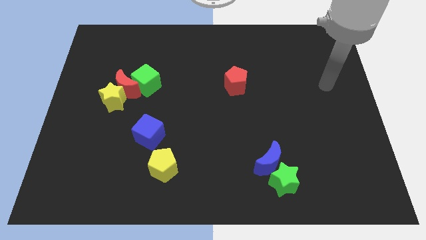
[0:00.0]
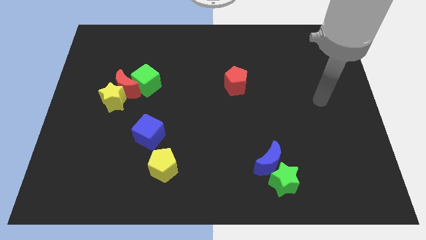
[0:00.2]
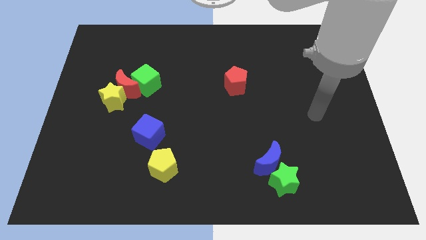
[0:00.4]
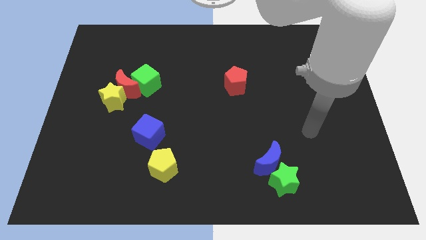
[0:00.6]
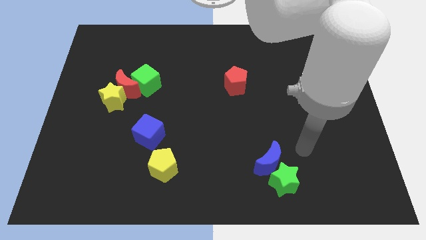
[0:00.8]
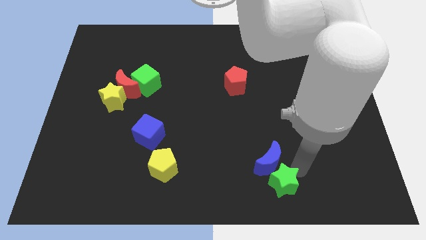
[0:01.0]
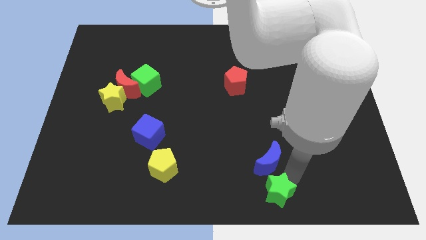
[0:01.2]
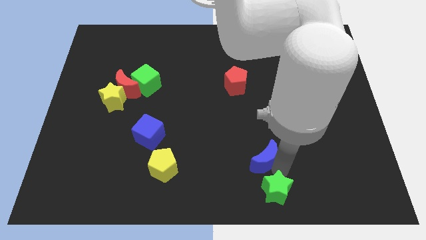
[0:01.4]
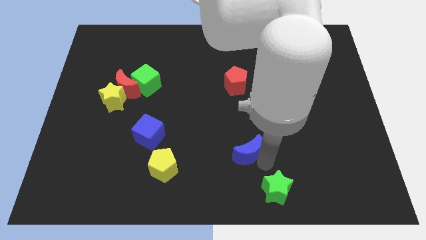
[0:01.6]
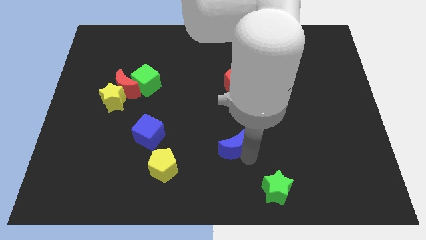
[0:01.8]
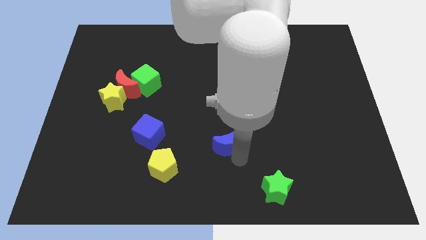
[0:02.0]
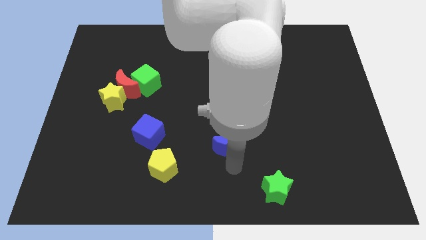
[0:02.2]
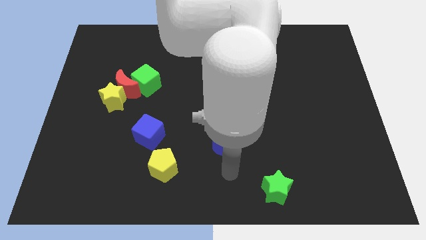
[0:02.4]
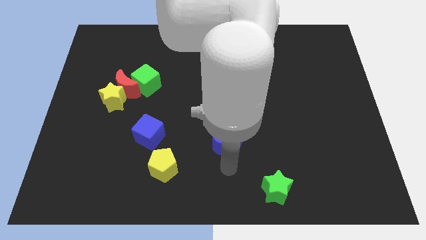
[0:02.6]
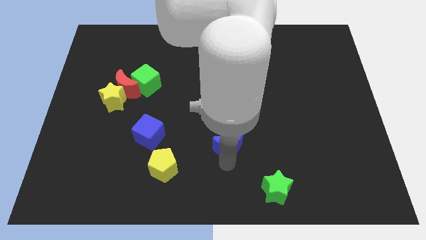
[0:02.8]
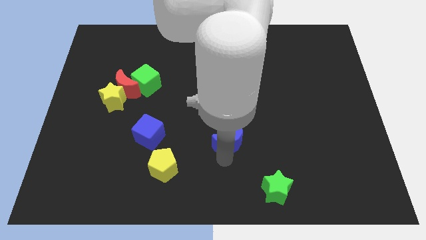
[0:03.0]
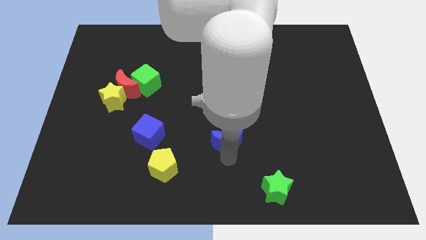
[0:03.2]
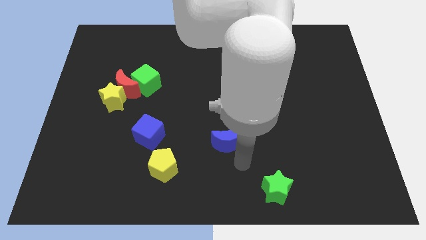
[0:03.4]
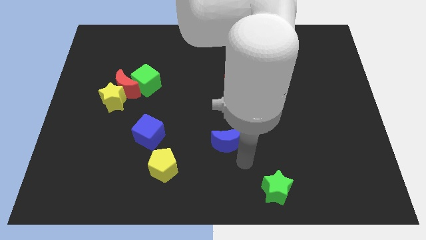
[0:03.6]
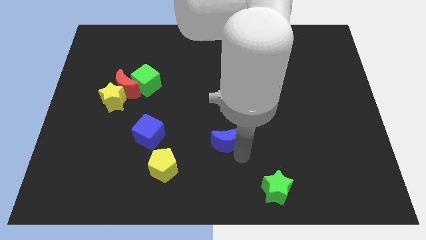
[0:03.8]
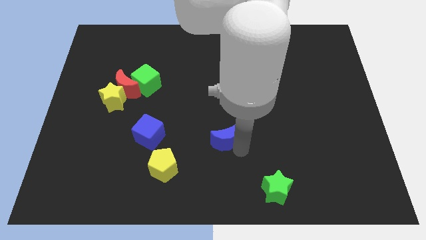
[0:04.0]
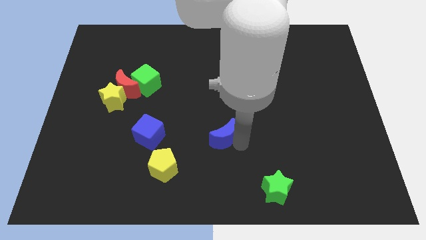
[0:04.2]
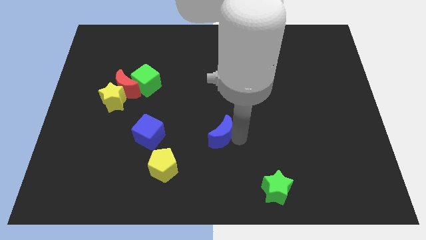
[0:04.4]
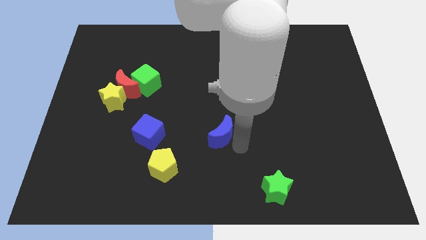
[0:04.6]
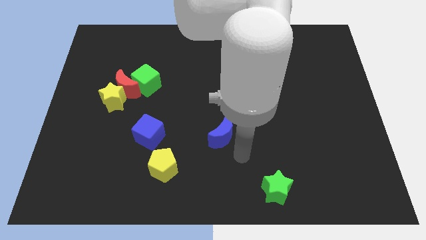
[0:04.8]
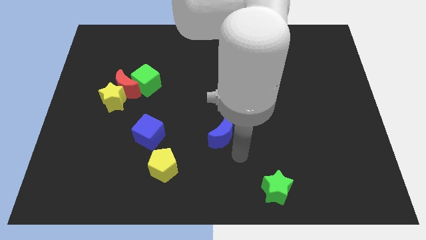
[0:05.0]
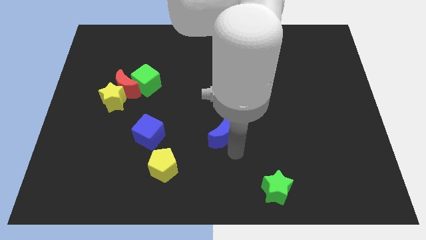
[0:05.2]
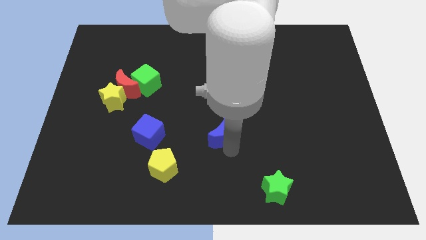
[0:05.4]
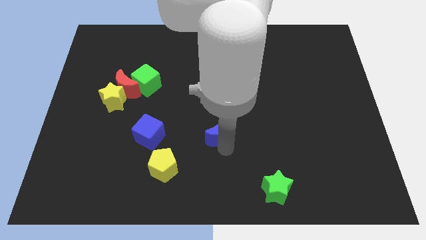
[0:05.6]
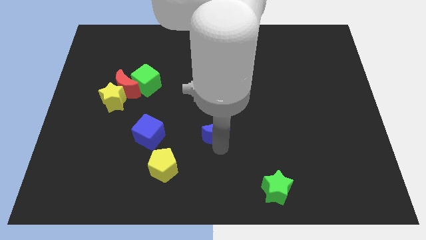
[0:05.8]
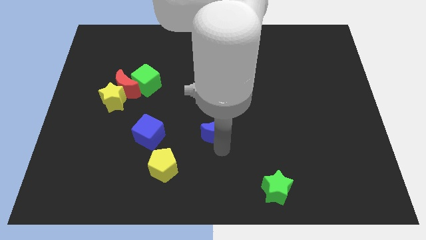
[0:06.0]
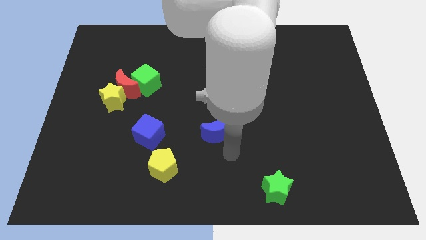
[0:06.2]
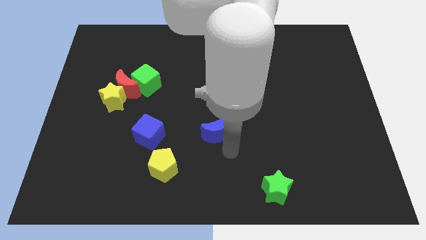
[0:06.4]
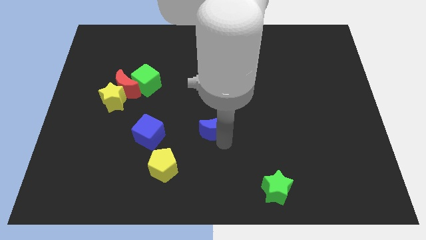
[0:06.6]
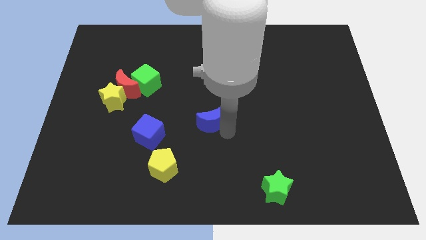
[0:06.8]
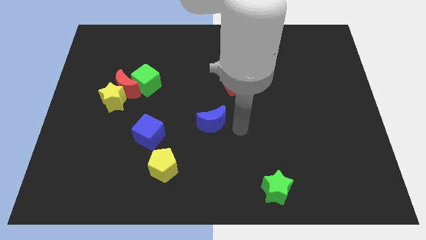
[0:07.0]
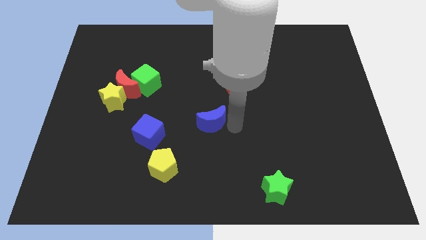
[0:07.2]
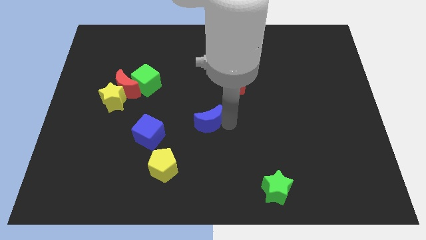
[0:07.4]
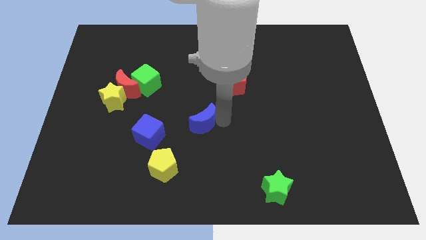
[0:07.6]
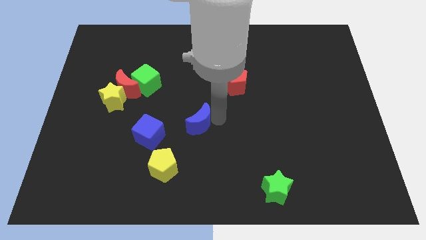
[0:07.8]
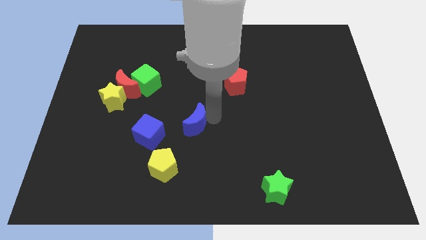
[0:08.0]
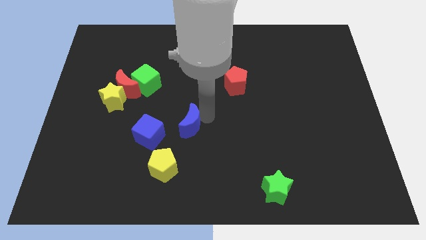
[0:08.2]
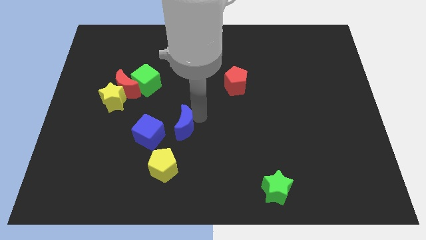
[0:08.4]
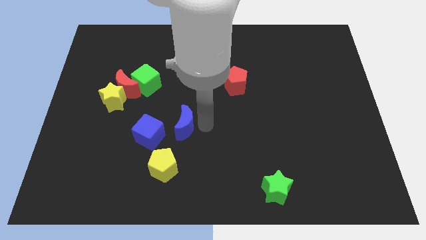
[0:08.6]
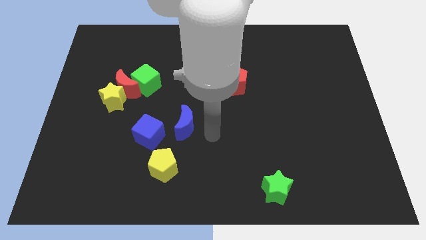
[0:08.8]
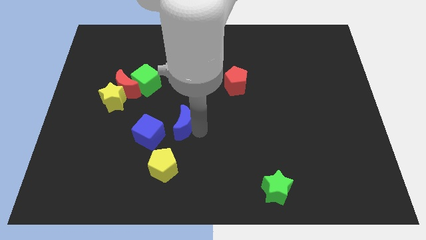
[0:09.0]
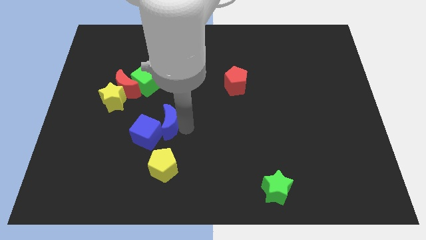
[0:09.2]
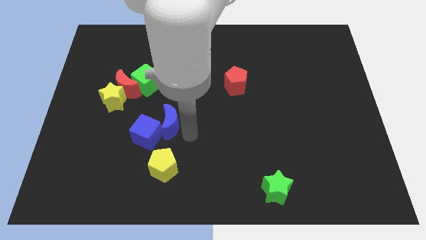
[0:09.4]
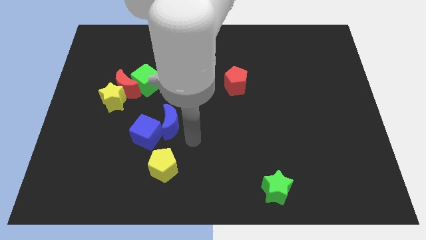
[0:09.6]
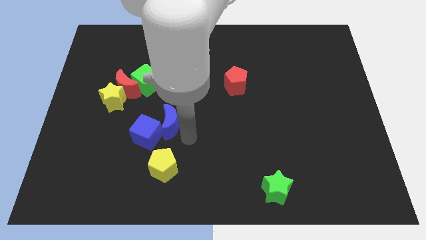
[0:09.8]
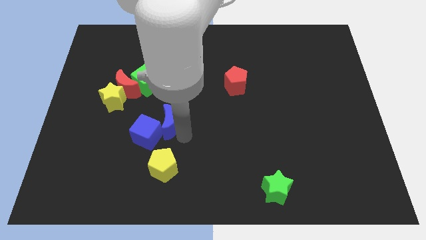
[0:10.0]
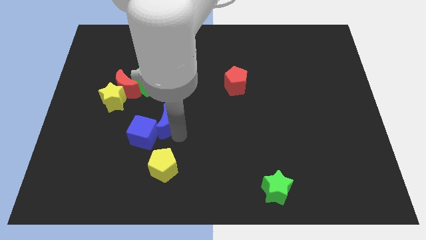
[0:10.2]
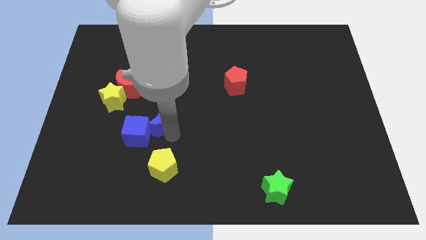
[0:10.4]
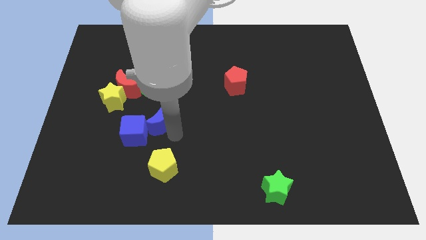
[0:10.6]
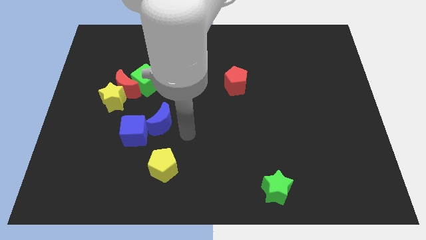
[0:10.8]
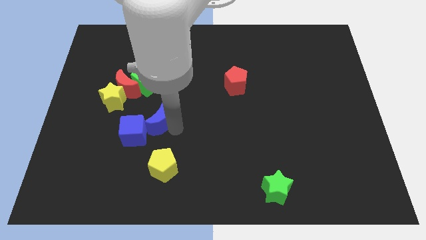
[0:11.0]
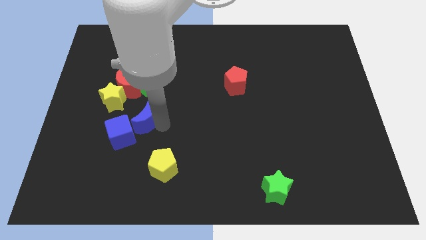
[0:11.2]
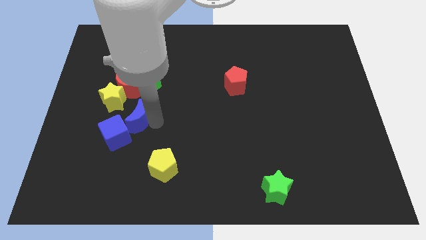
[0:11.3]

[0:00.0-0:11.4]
put the blue moon to the bottom side of the red moon

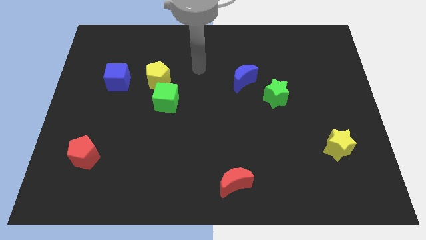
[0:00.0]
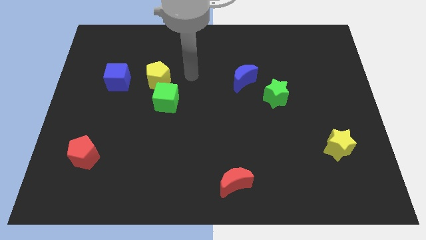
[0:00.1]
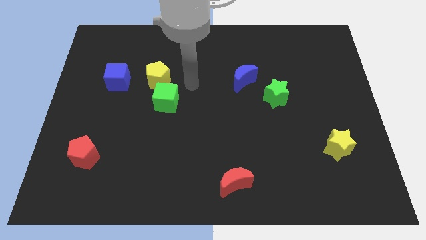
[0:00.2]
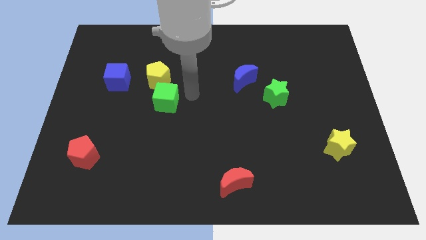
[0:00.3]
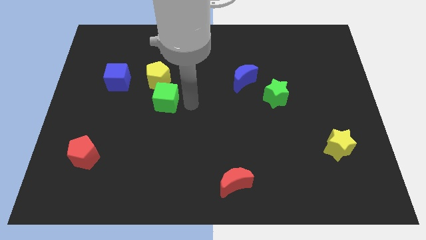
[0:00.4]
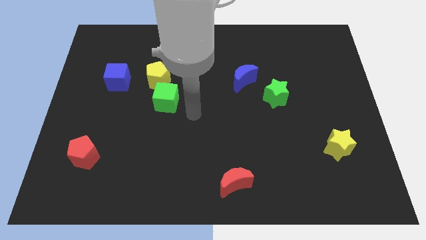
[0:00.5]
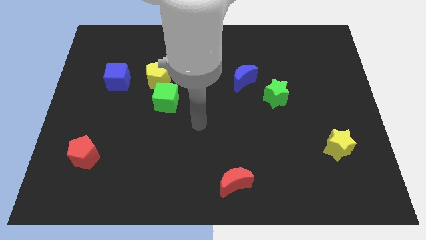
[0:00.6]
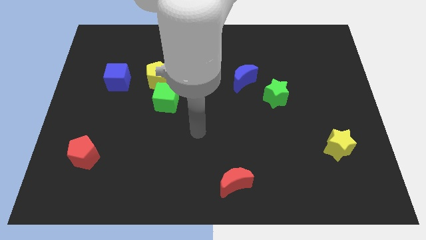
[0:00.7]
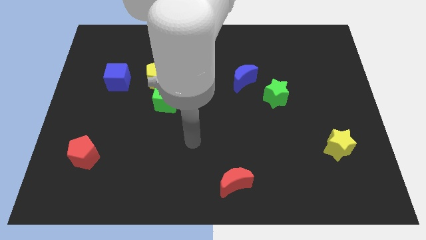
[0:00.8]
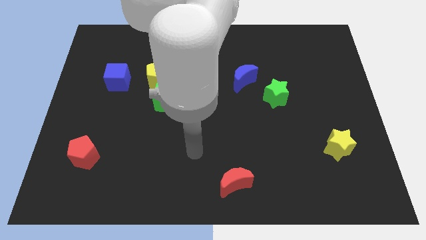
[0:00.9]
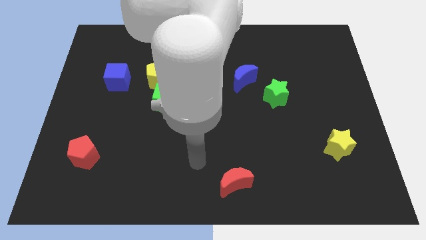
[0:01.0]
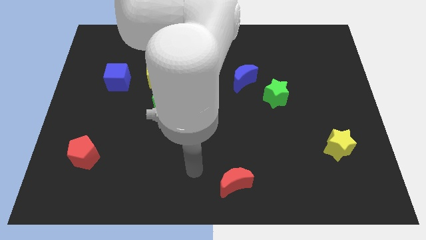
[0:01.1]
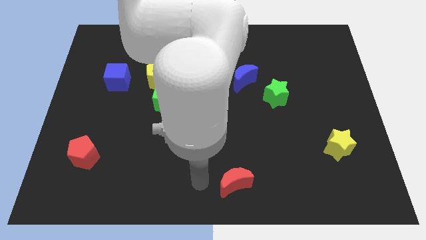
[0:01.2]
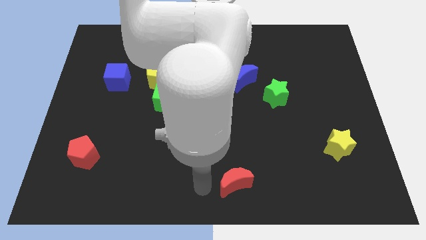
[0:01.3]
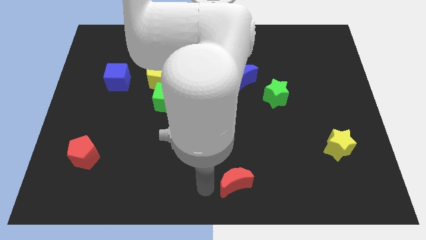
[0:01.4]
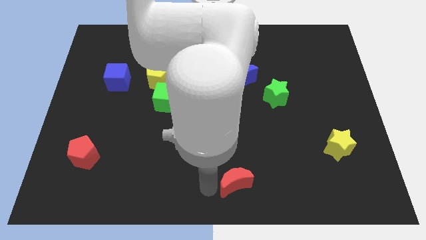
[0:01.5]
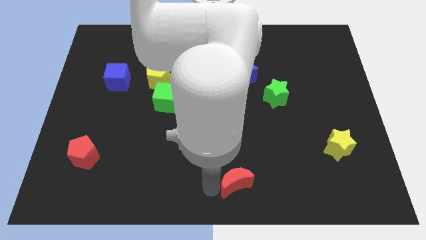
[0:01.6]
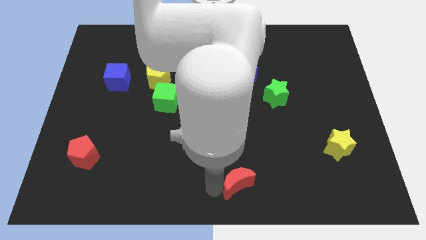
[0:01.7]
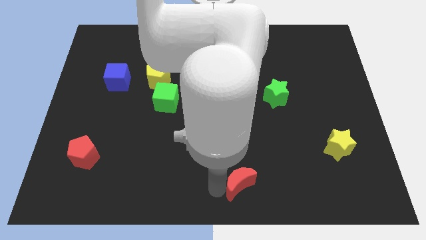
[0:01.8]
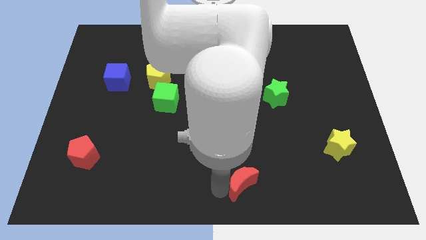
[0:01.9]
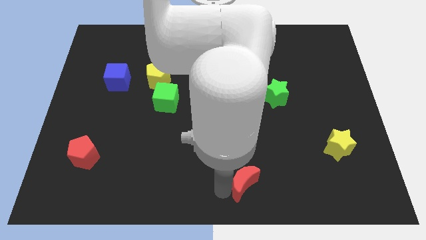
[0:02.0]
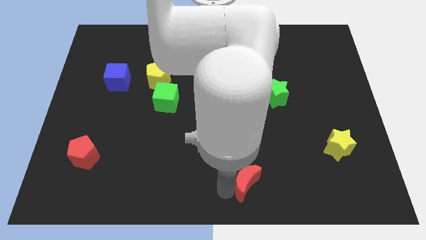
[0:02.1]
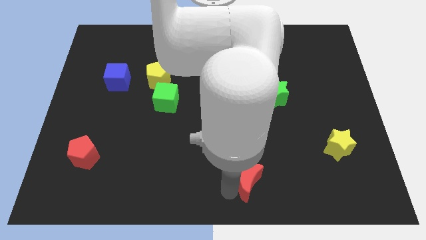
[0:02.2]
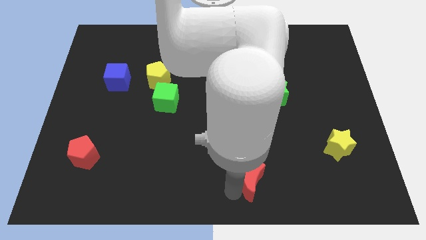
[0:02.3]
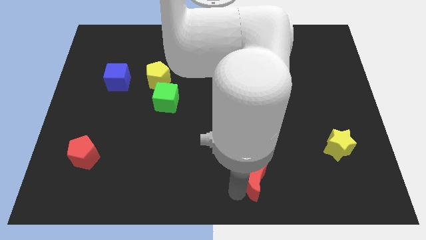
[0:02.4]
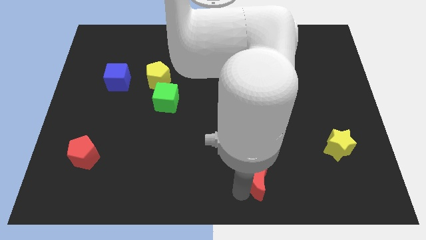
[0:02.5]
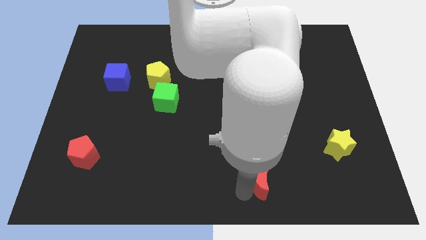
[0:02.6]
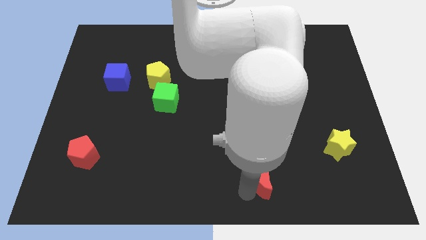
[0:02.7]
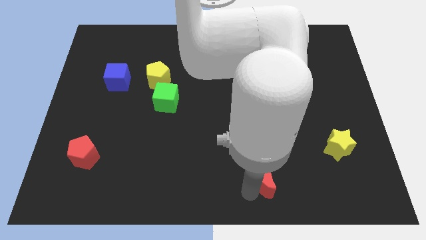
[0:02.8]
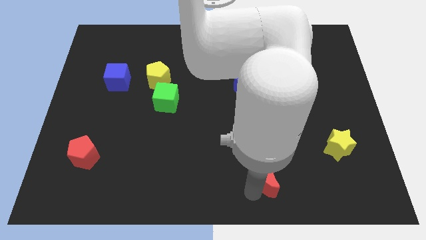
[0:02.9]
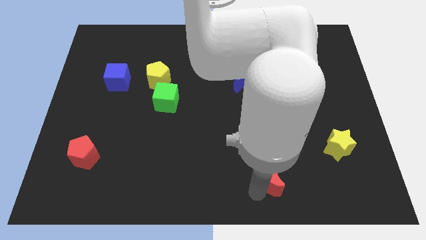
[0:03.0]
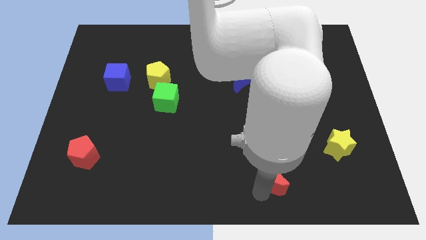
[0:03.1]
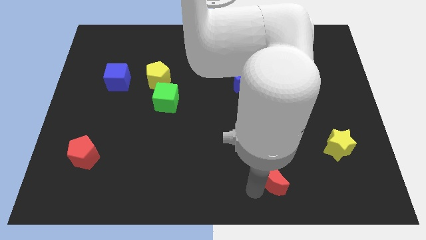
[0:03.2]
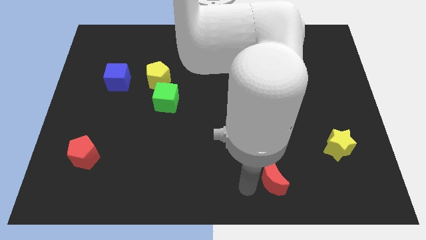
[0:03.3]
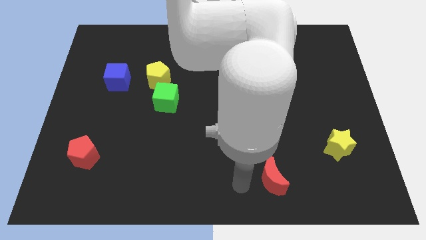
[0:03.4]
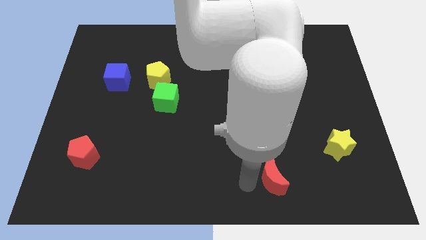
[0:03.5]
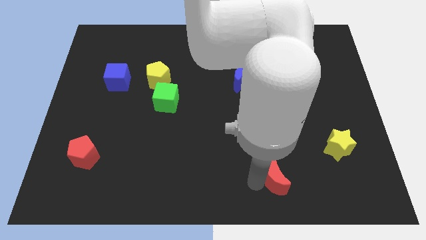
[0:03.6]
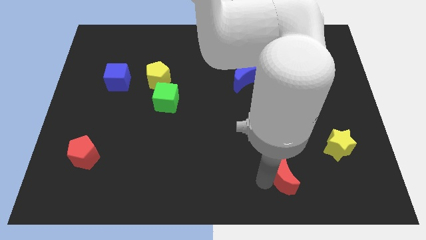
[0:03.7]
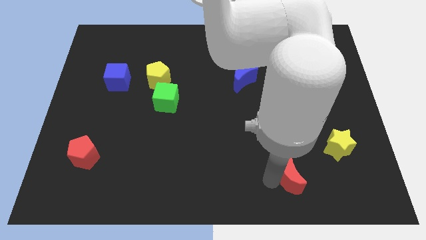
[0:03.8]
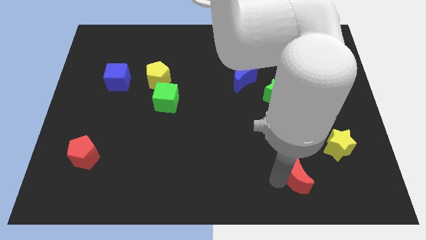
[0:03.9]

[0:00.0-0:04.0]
slide the red moon to the bottom left of the yellow star
